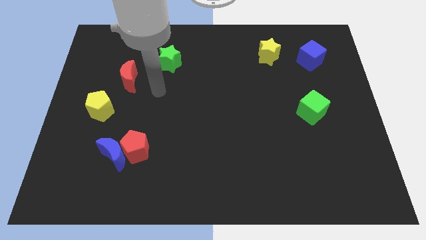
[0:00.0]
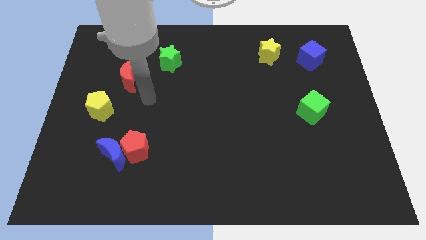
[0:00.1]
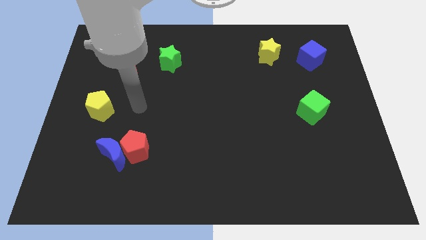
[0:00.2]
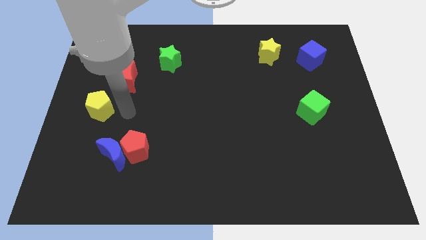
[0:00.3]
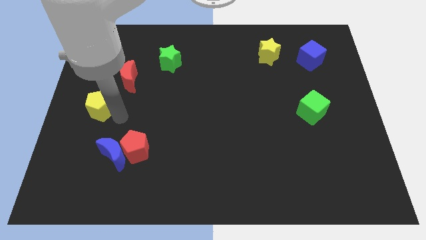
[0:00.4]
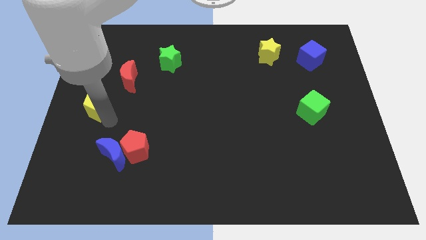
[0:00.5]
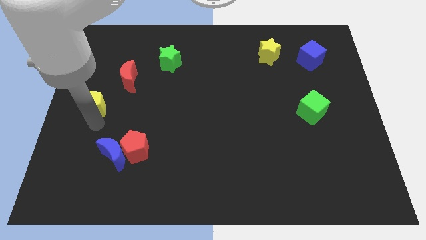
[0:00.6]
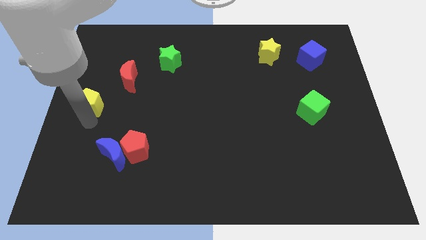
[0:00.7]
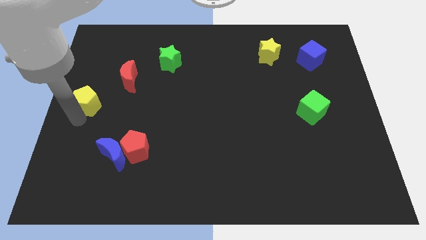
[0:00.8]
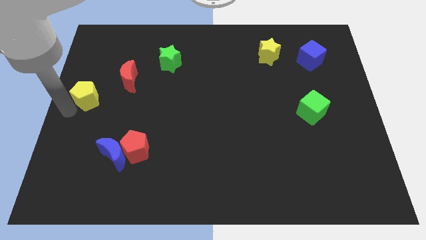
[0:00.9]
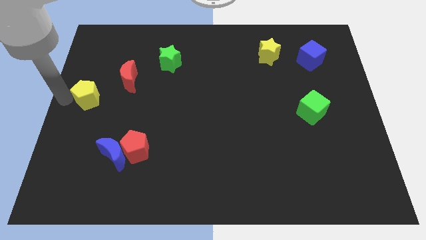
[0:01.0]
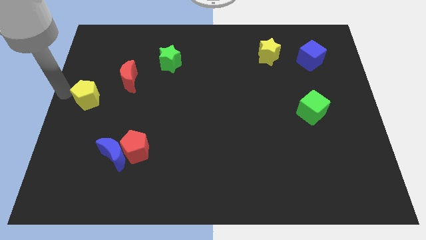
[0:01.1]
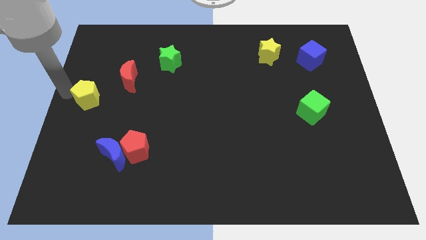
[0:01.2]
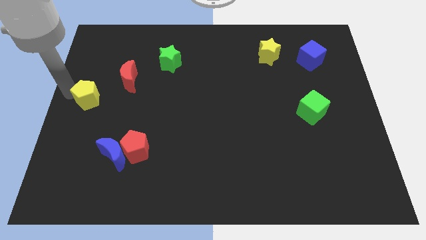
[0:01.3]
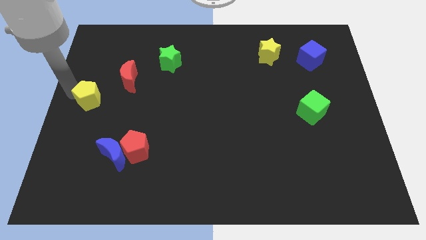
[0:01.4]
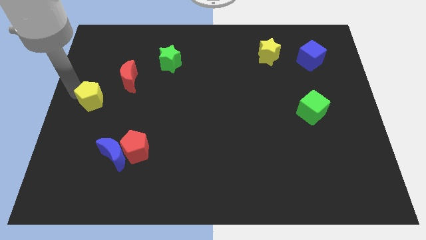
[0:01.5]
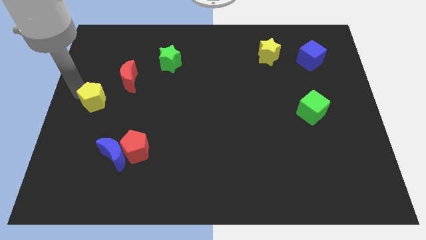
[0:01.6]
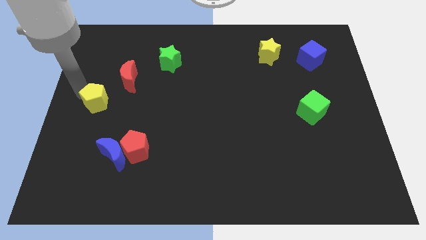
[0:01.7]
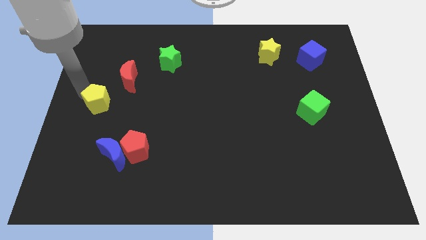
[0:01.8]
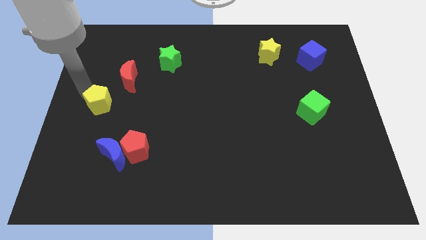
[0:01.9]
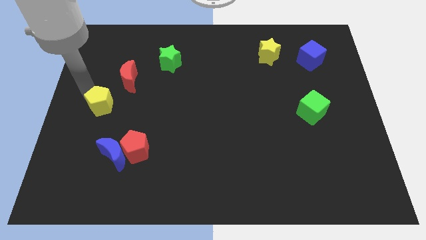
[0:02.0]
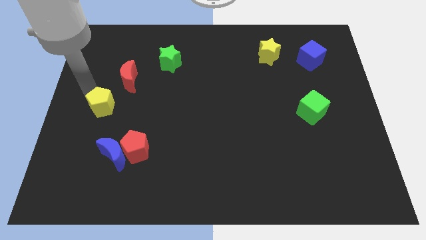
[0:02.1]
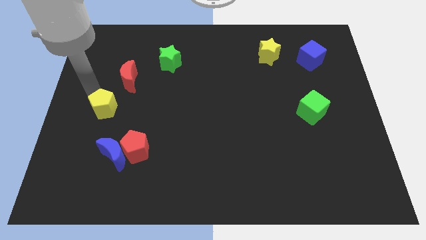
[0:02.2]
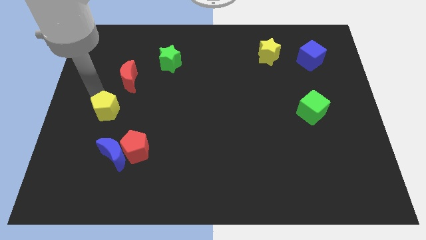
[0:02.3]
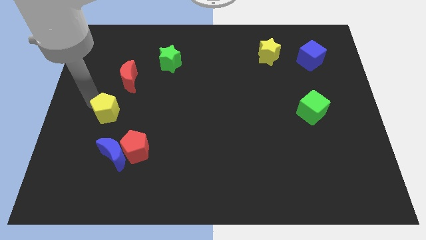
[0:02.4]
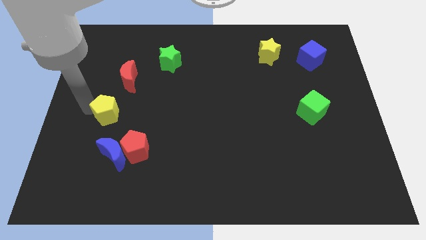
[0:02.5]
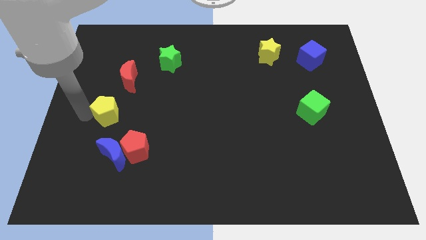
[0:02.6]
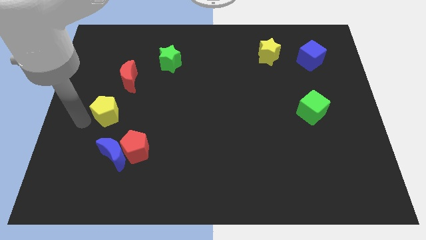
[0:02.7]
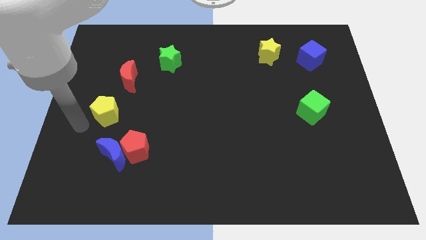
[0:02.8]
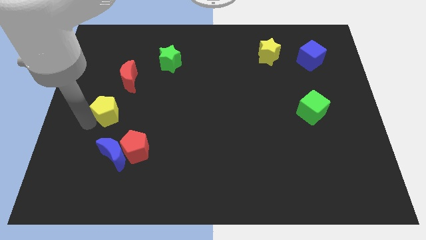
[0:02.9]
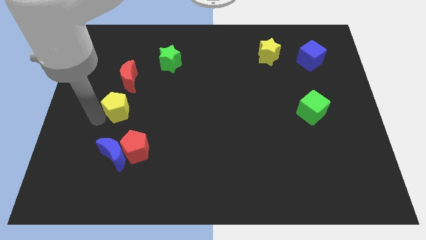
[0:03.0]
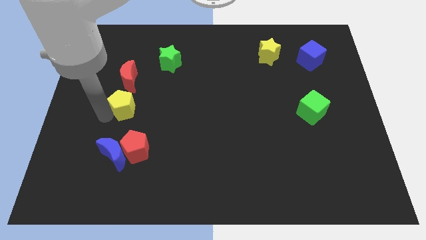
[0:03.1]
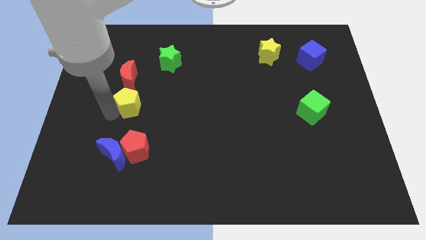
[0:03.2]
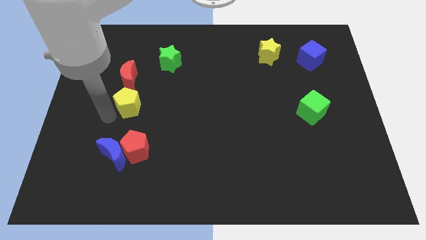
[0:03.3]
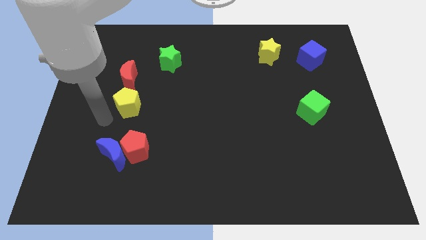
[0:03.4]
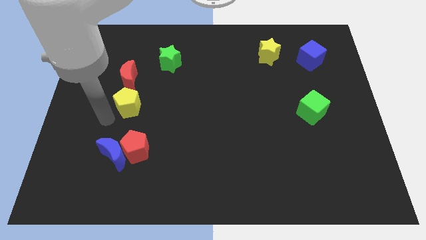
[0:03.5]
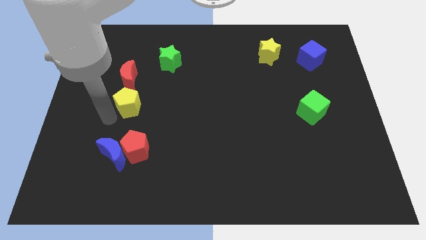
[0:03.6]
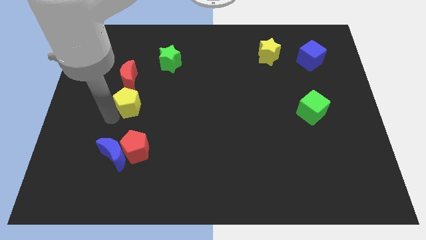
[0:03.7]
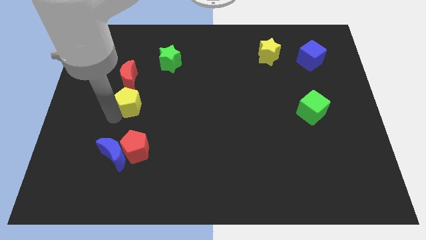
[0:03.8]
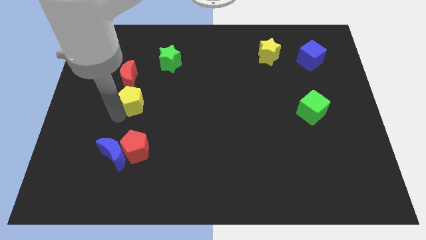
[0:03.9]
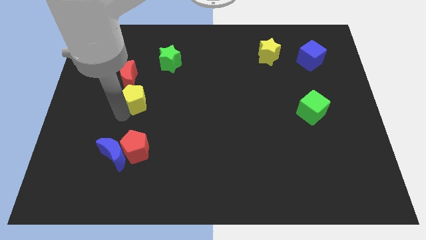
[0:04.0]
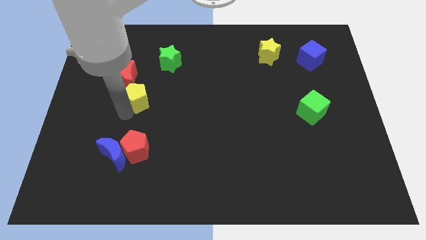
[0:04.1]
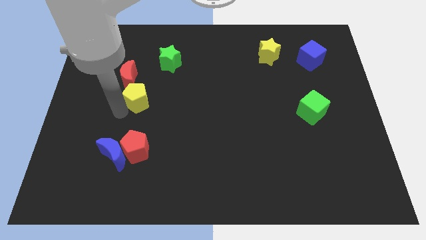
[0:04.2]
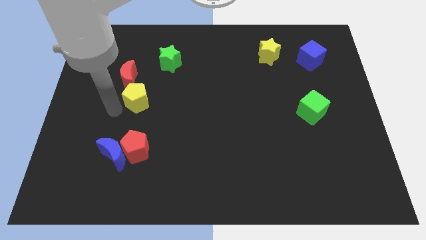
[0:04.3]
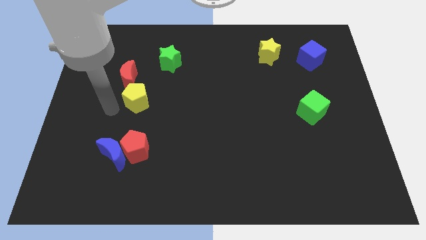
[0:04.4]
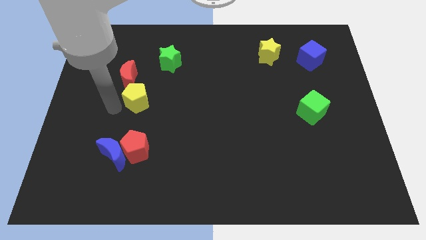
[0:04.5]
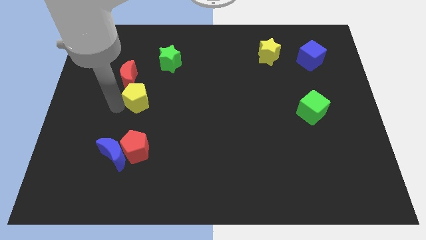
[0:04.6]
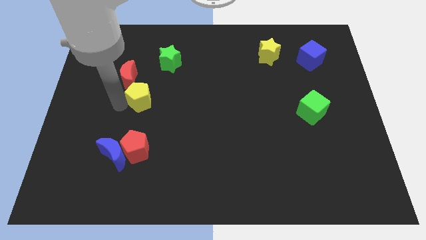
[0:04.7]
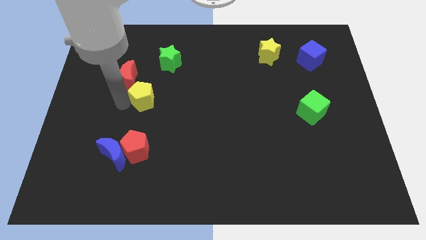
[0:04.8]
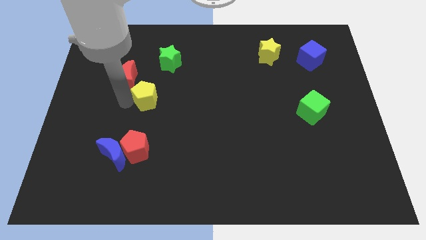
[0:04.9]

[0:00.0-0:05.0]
put the yellow pentagon below the green star

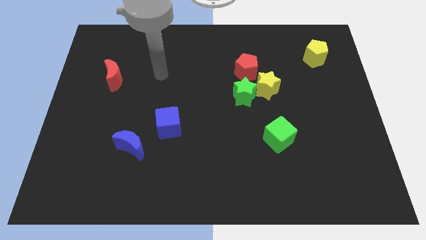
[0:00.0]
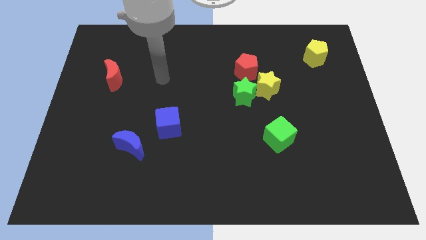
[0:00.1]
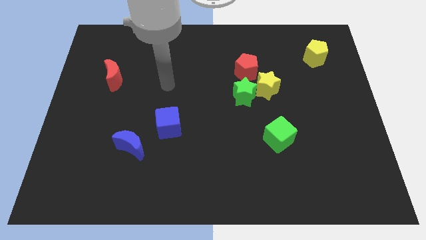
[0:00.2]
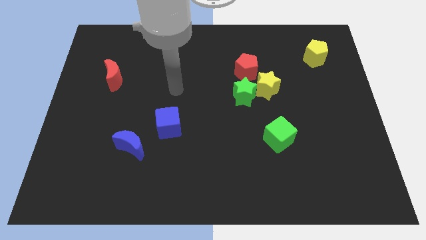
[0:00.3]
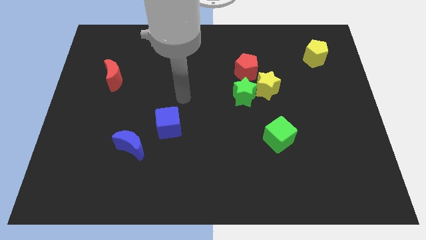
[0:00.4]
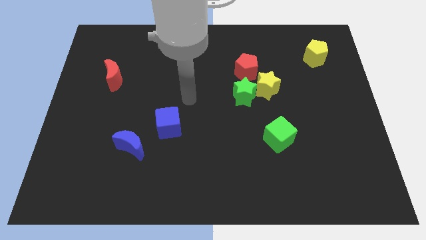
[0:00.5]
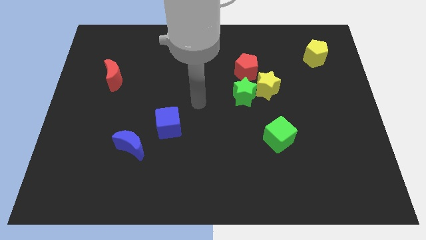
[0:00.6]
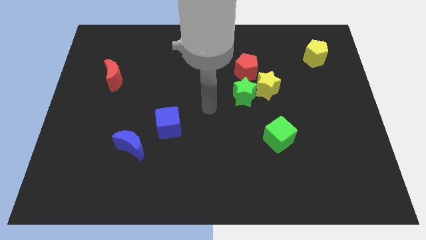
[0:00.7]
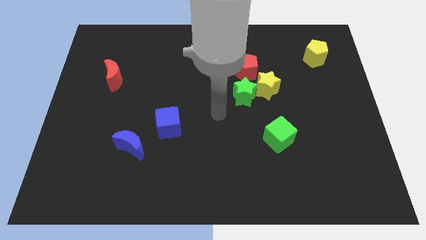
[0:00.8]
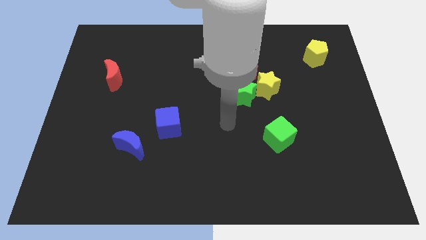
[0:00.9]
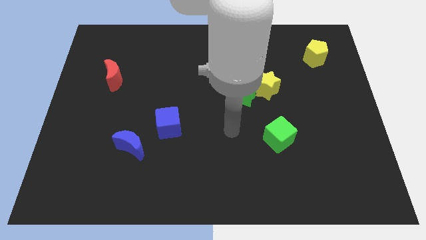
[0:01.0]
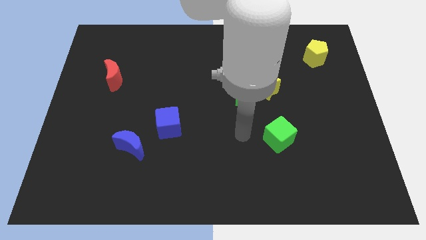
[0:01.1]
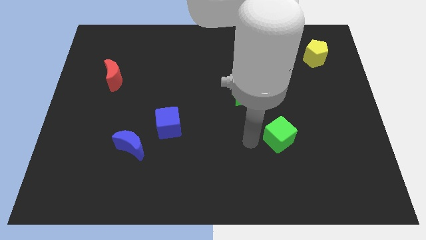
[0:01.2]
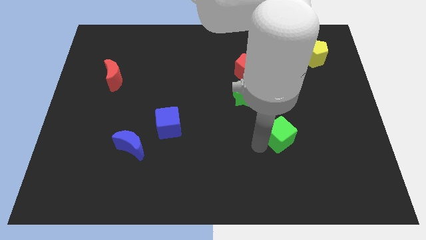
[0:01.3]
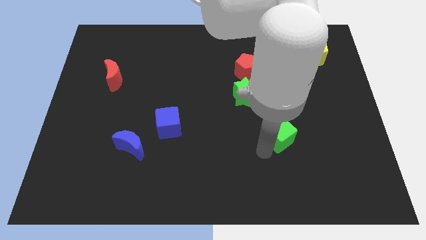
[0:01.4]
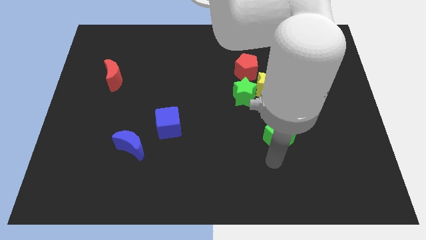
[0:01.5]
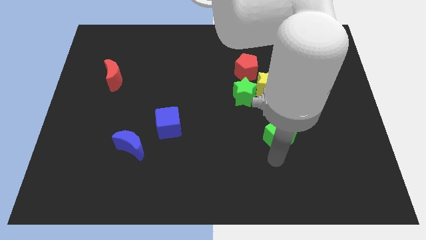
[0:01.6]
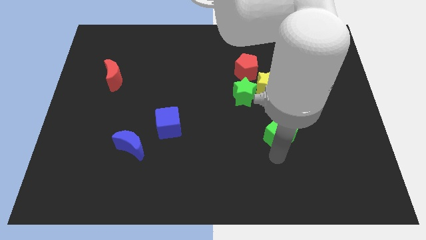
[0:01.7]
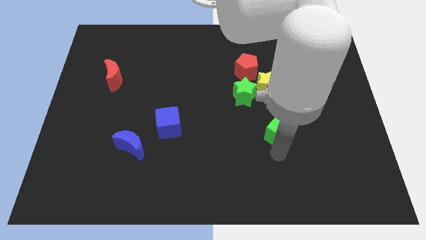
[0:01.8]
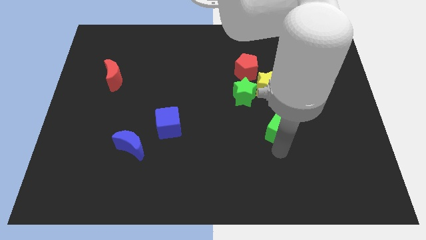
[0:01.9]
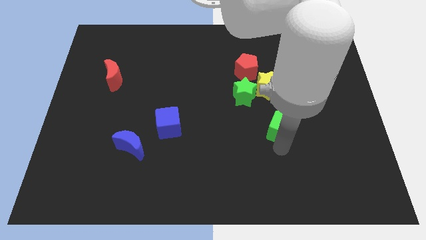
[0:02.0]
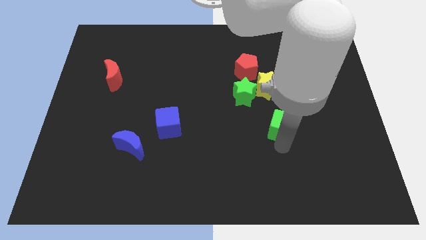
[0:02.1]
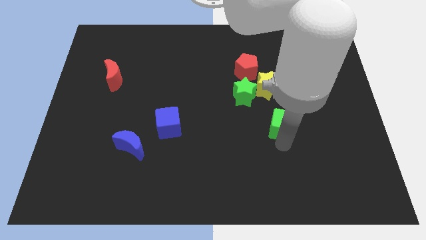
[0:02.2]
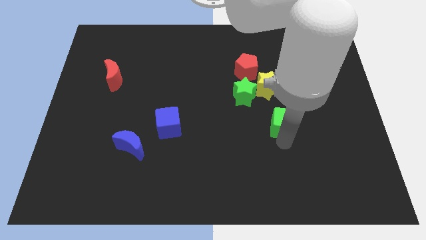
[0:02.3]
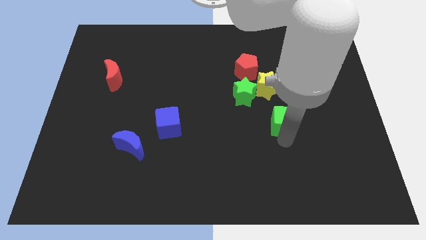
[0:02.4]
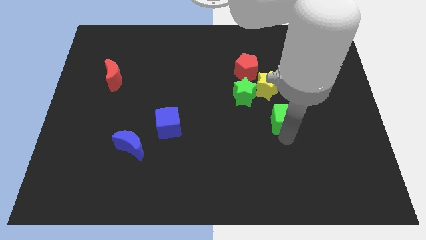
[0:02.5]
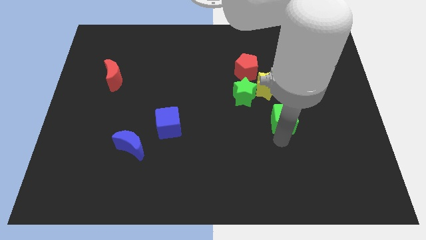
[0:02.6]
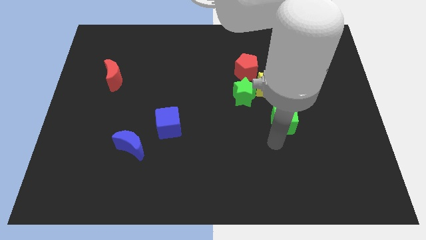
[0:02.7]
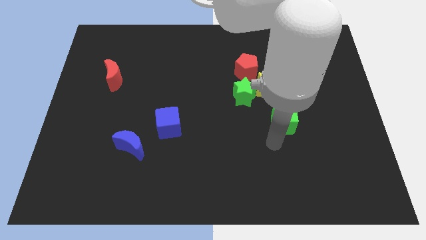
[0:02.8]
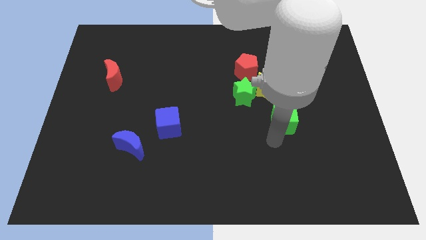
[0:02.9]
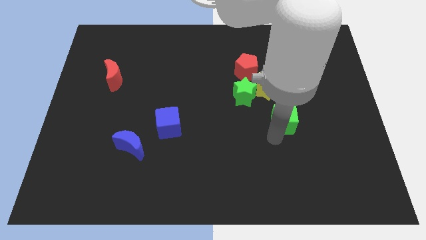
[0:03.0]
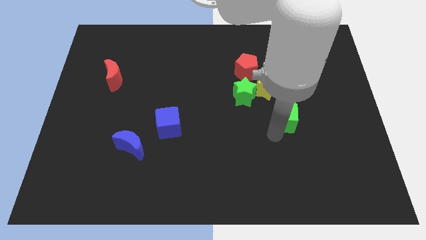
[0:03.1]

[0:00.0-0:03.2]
put the green cube diagonally down and to the right of the yellow star
